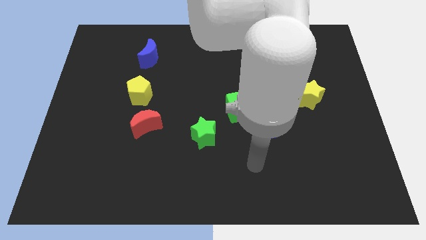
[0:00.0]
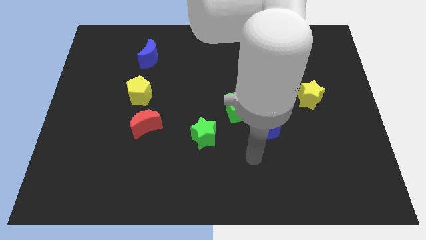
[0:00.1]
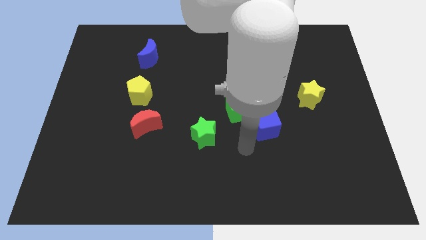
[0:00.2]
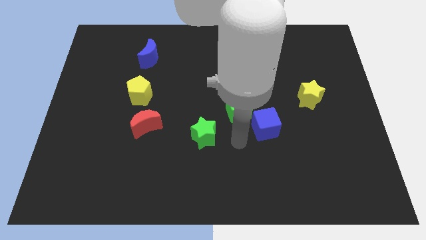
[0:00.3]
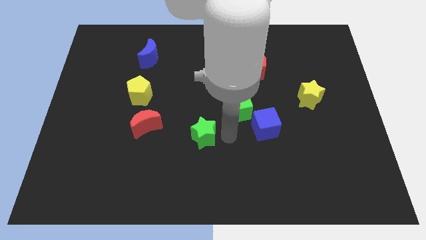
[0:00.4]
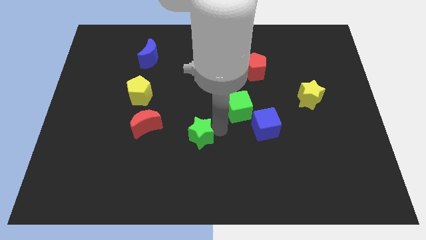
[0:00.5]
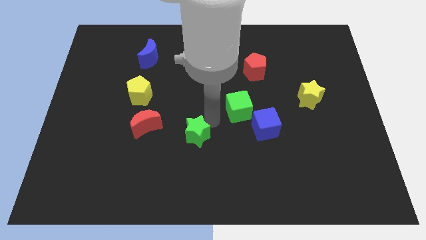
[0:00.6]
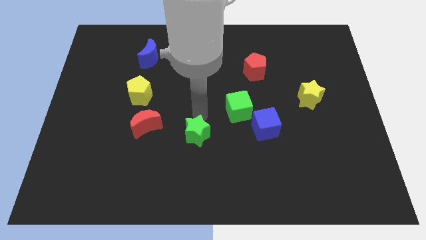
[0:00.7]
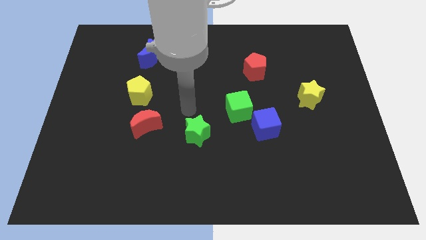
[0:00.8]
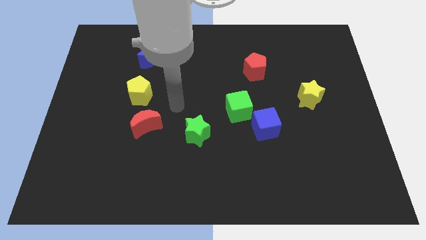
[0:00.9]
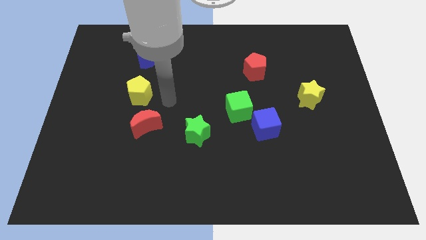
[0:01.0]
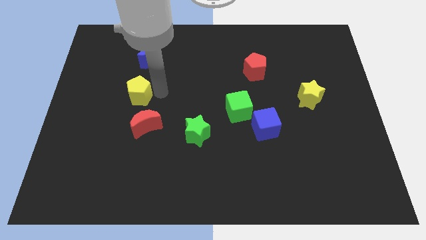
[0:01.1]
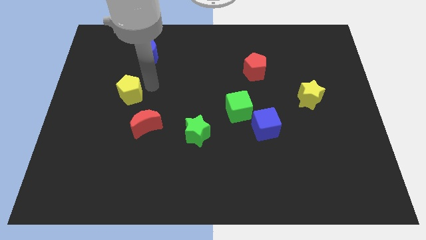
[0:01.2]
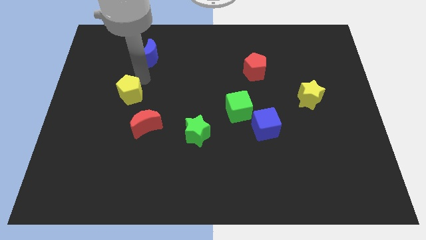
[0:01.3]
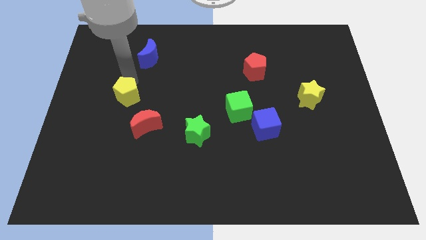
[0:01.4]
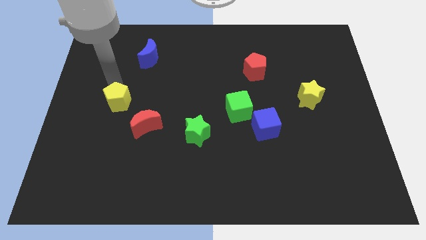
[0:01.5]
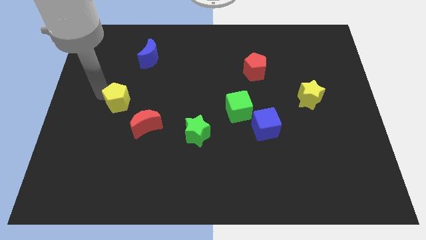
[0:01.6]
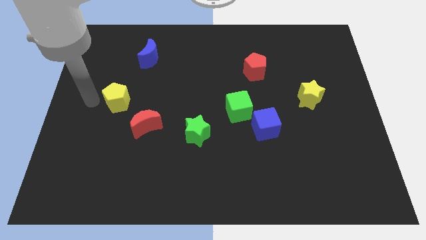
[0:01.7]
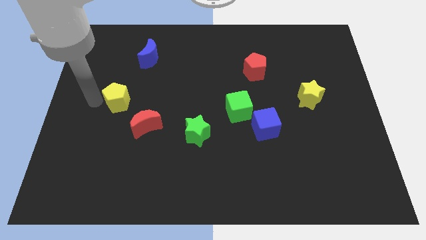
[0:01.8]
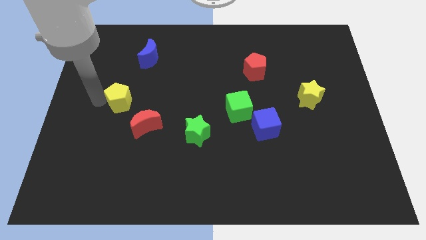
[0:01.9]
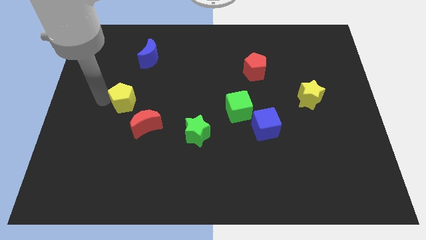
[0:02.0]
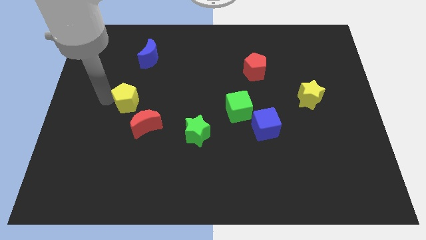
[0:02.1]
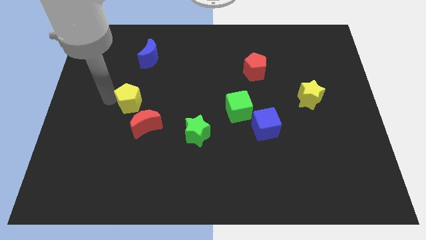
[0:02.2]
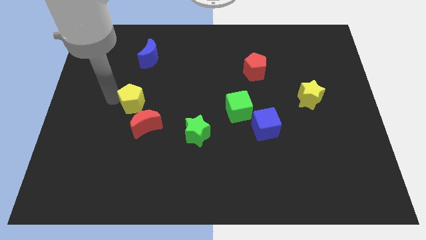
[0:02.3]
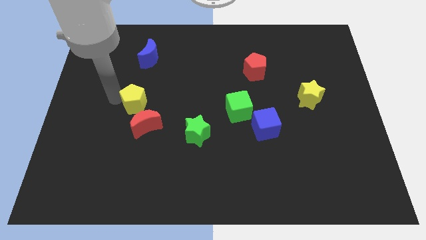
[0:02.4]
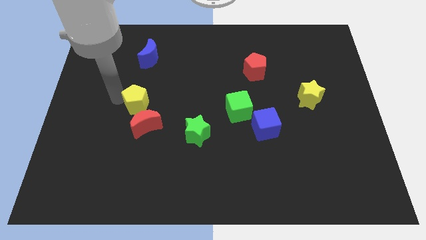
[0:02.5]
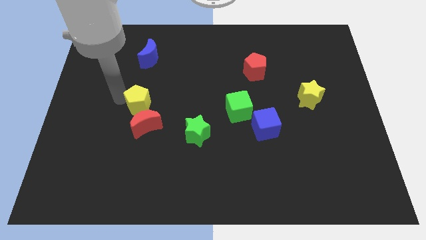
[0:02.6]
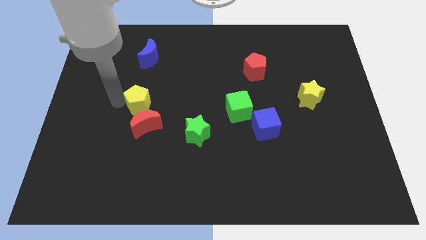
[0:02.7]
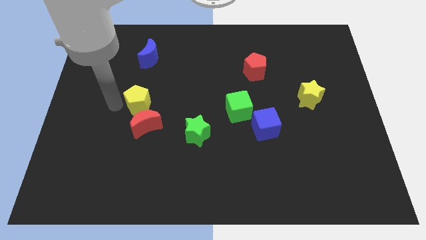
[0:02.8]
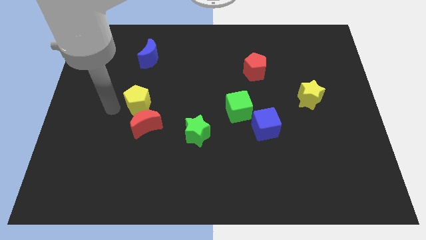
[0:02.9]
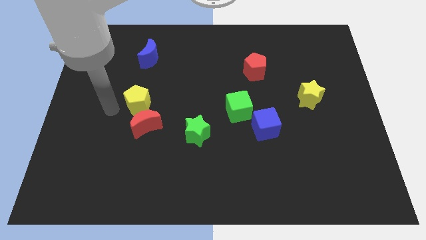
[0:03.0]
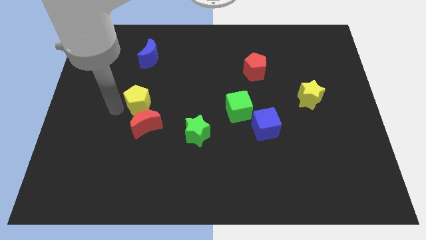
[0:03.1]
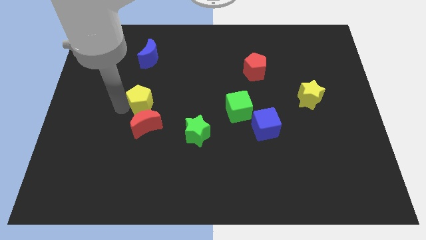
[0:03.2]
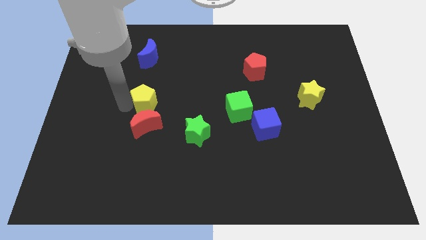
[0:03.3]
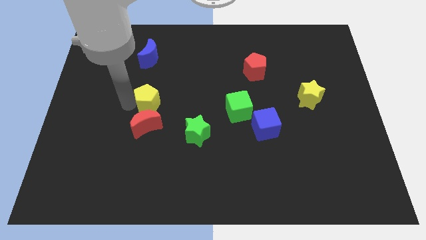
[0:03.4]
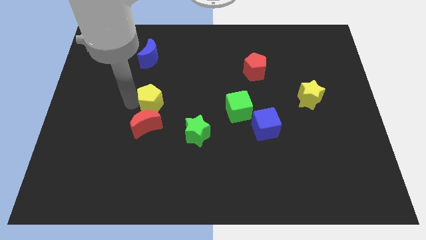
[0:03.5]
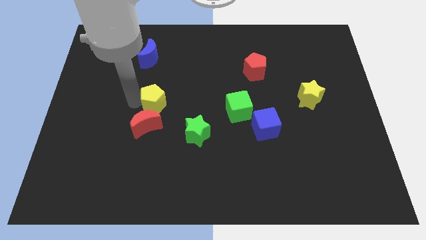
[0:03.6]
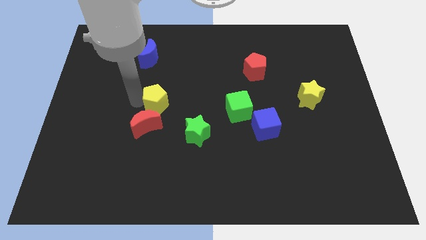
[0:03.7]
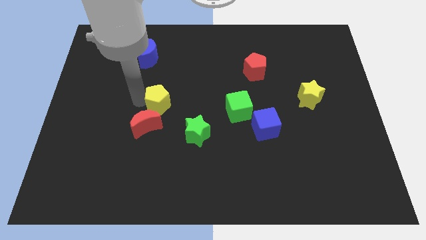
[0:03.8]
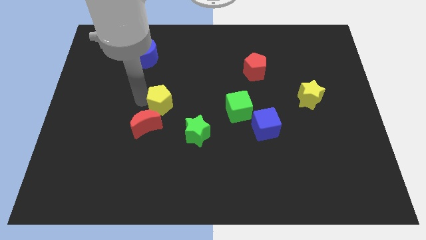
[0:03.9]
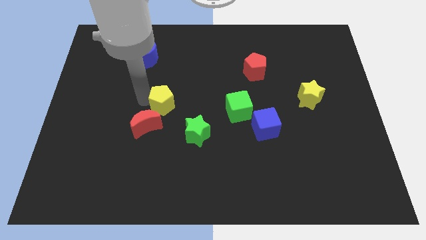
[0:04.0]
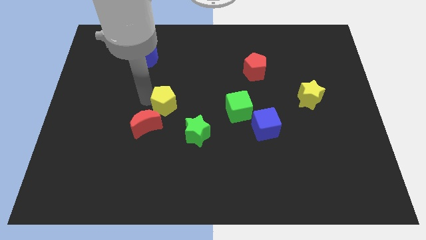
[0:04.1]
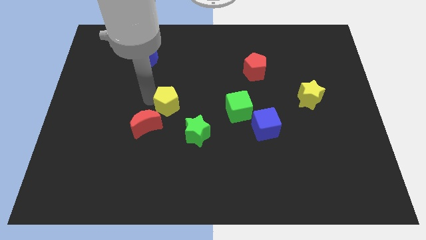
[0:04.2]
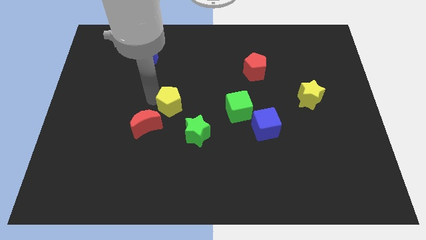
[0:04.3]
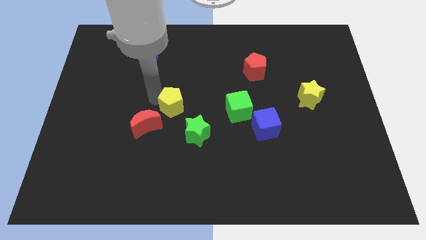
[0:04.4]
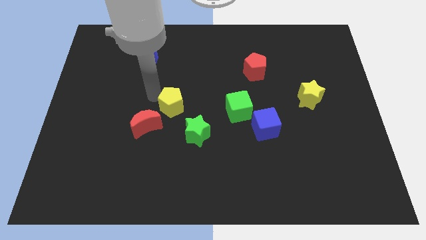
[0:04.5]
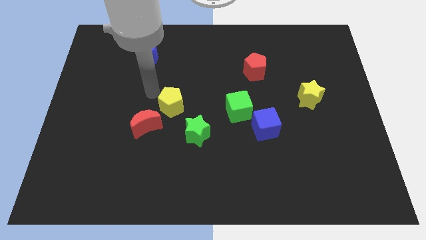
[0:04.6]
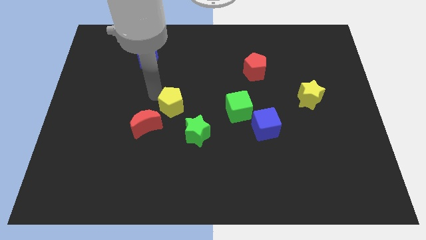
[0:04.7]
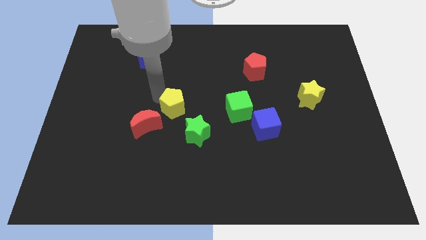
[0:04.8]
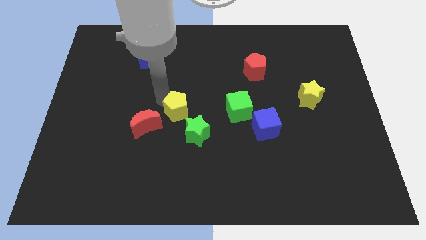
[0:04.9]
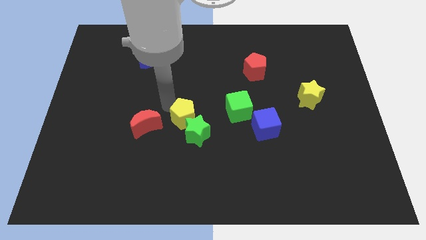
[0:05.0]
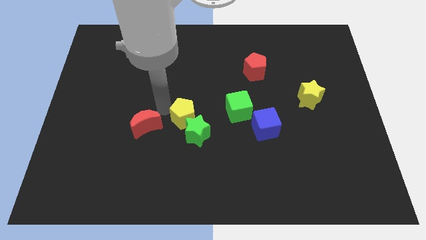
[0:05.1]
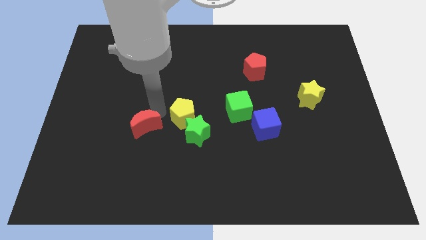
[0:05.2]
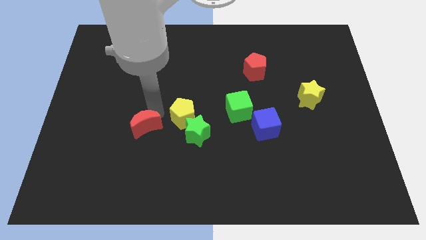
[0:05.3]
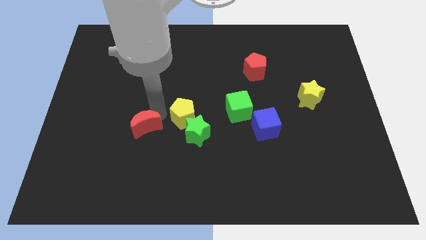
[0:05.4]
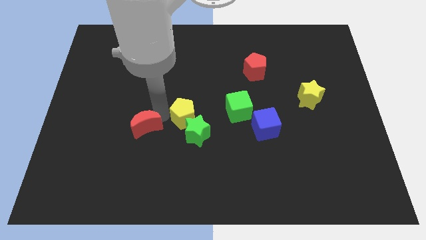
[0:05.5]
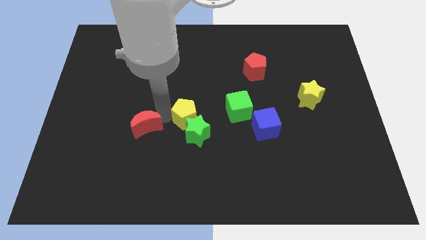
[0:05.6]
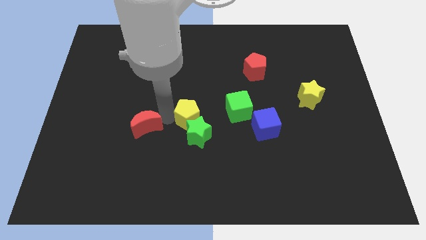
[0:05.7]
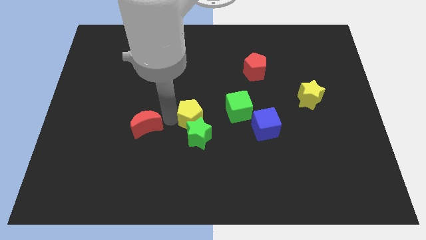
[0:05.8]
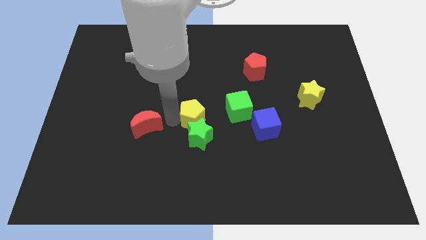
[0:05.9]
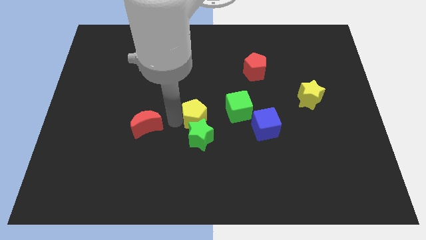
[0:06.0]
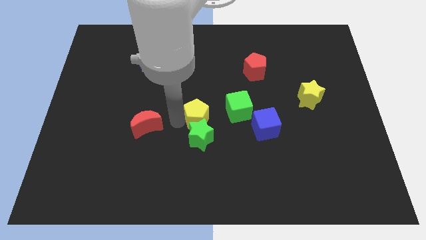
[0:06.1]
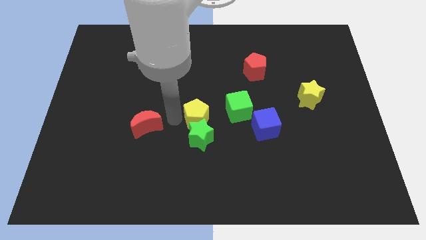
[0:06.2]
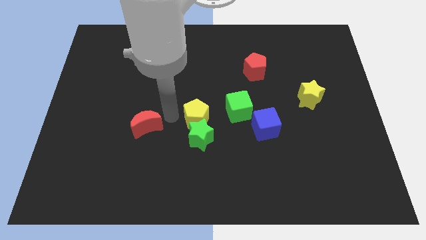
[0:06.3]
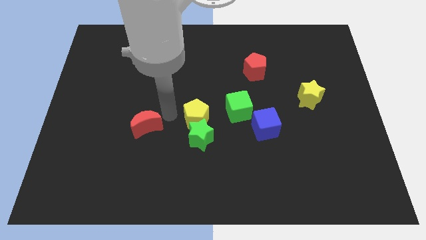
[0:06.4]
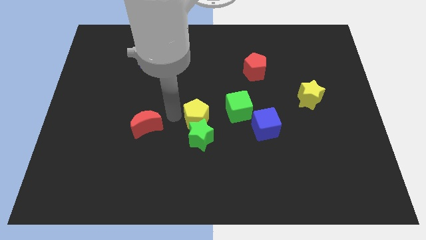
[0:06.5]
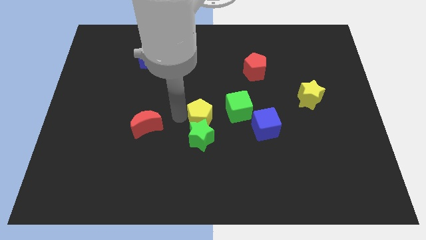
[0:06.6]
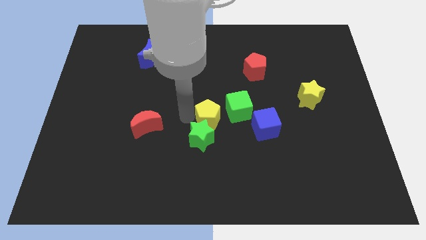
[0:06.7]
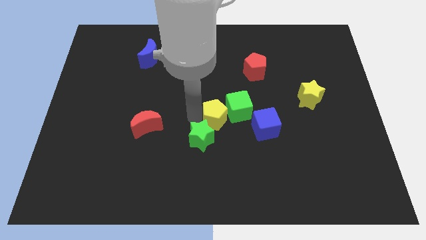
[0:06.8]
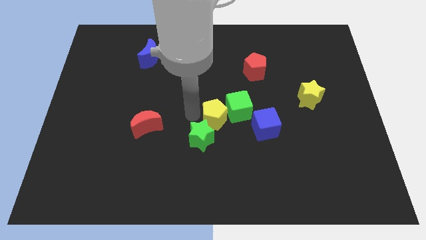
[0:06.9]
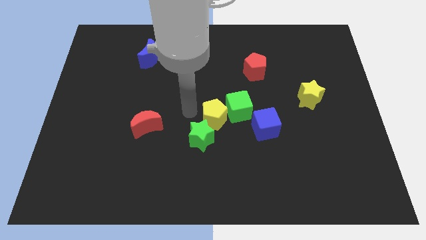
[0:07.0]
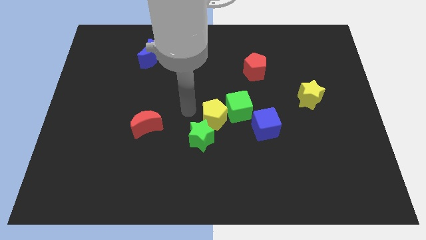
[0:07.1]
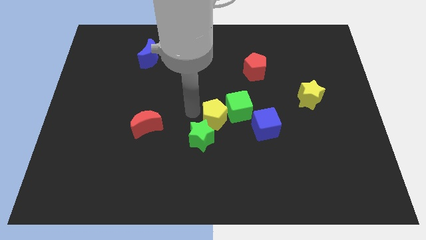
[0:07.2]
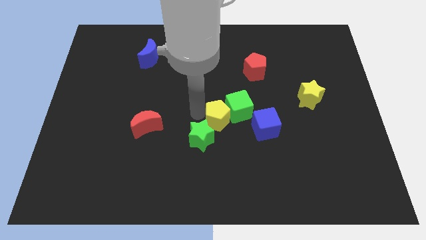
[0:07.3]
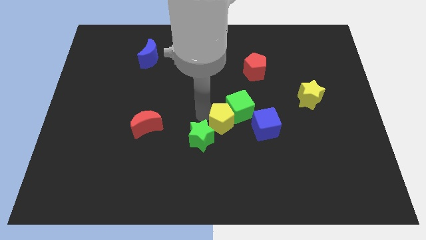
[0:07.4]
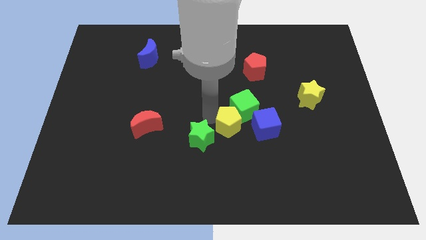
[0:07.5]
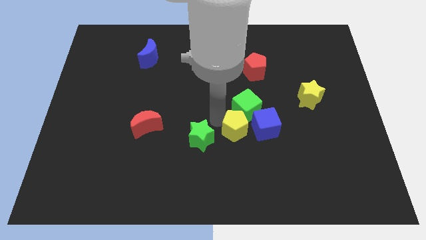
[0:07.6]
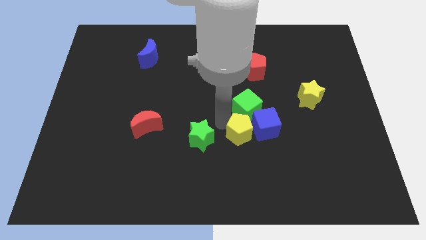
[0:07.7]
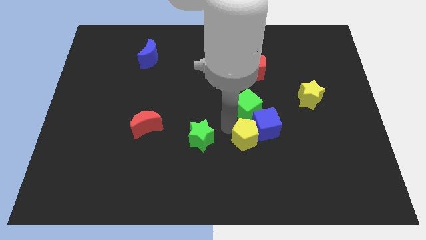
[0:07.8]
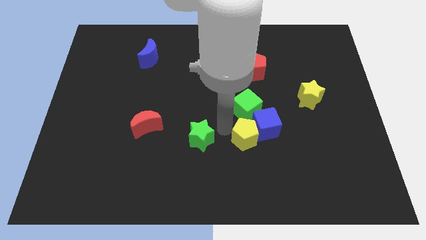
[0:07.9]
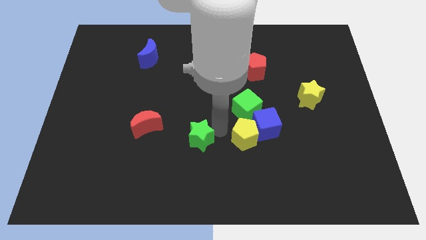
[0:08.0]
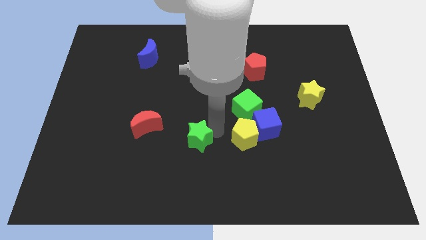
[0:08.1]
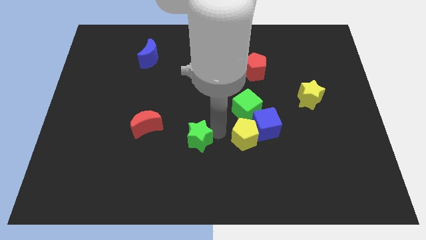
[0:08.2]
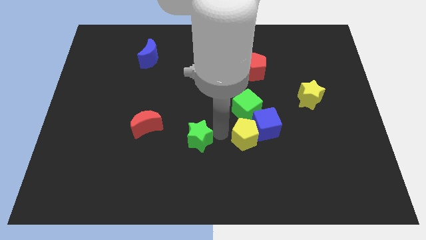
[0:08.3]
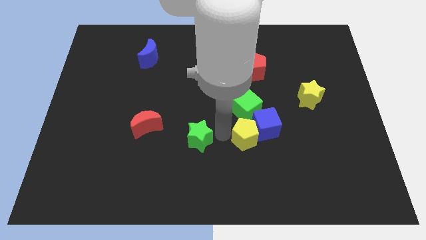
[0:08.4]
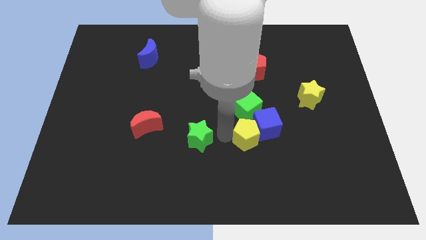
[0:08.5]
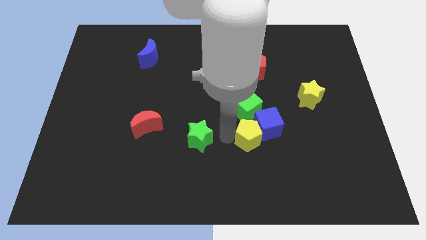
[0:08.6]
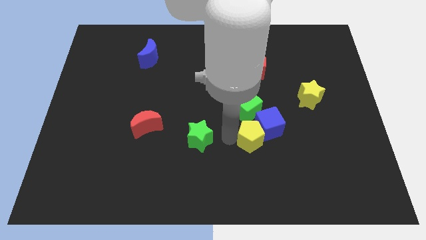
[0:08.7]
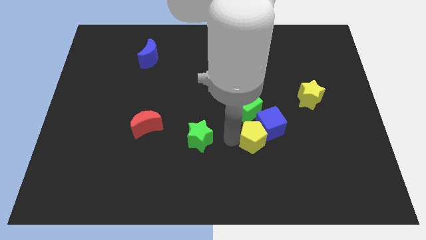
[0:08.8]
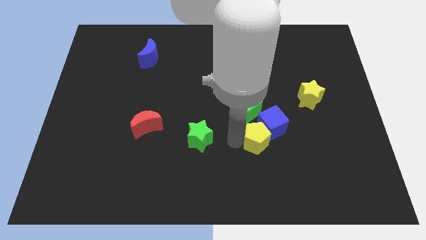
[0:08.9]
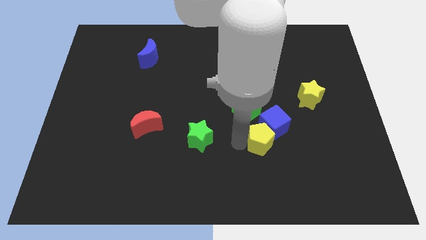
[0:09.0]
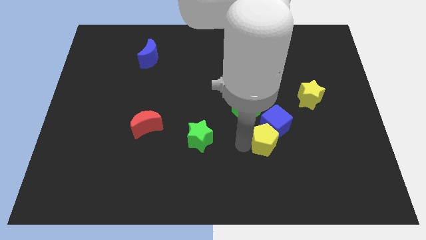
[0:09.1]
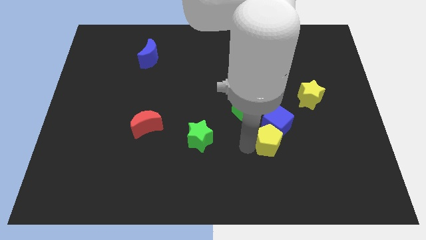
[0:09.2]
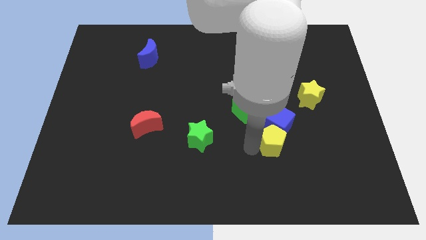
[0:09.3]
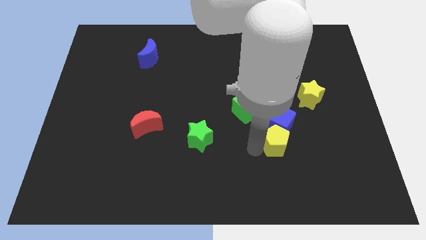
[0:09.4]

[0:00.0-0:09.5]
push the yellow pentagon to the bottom right side of the blue cube
